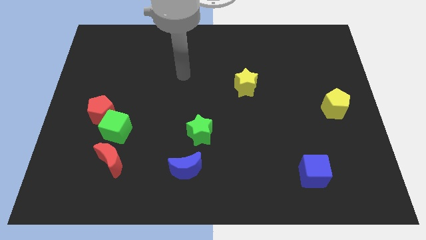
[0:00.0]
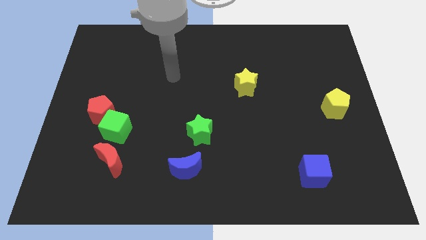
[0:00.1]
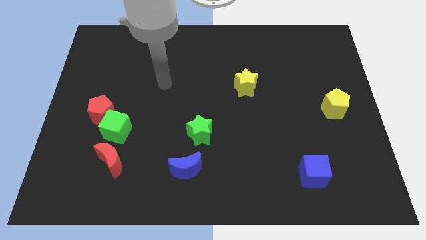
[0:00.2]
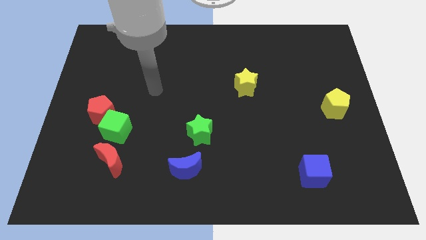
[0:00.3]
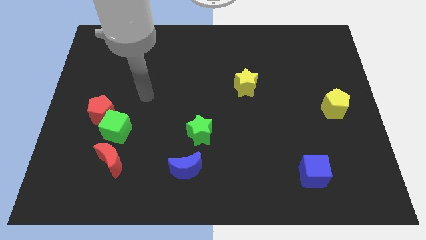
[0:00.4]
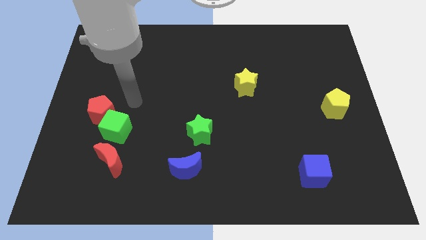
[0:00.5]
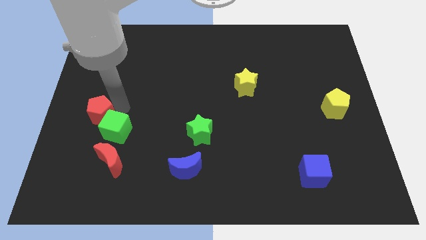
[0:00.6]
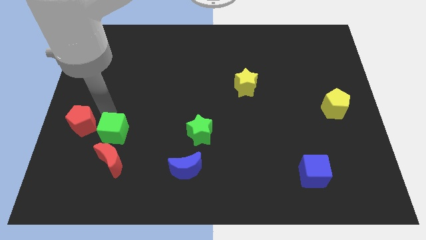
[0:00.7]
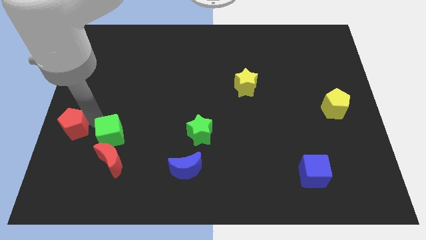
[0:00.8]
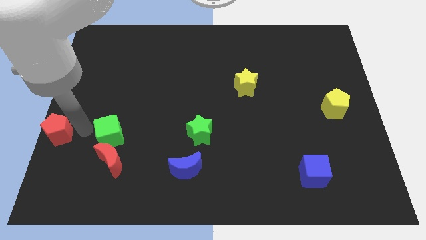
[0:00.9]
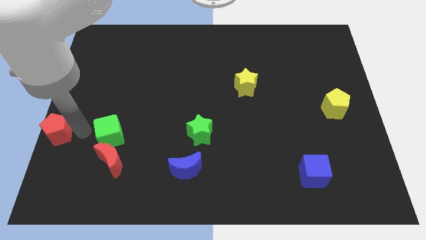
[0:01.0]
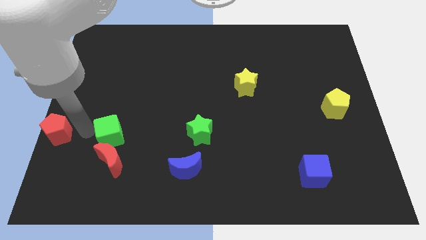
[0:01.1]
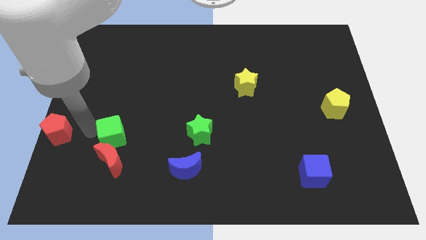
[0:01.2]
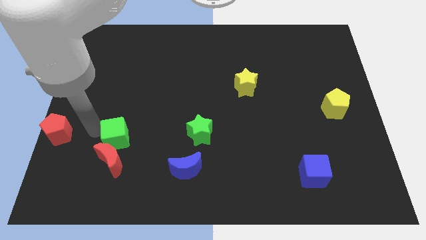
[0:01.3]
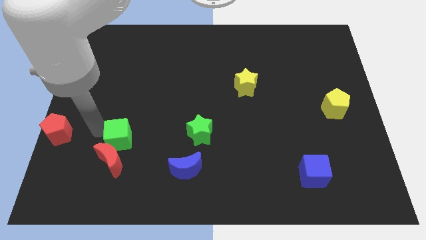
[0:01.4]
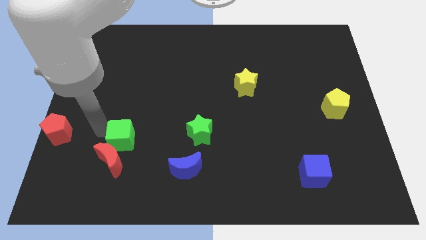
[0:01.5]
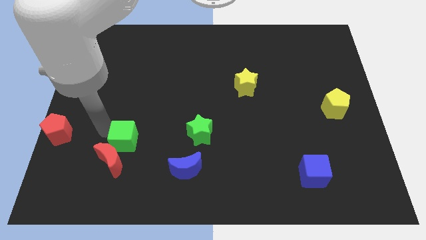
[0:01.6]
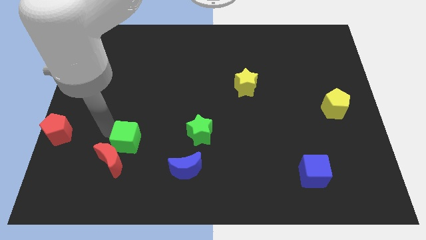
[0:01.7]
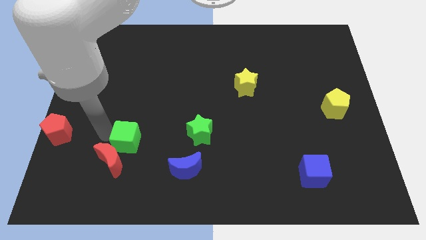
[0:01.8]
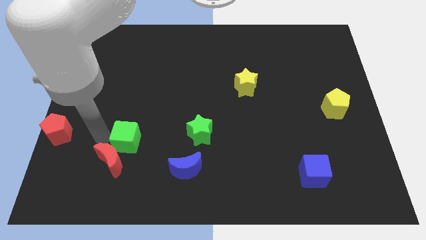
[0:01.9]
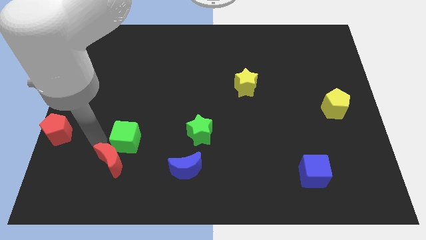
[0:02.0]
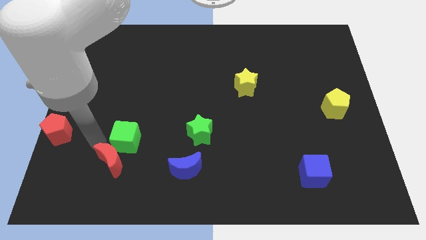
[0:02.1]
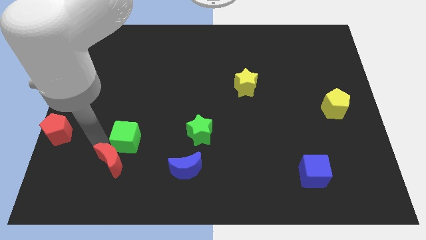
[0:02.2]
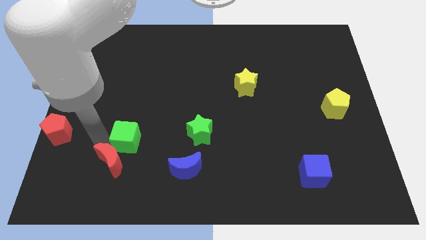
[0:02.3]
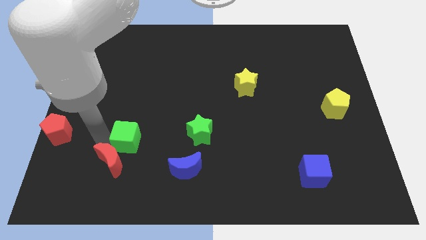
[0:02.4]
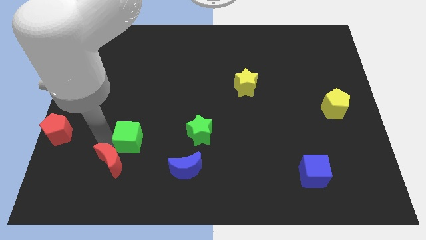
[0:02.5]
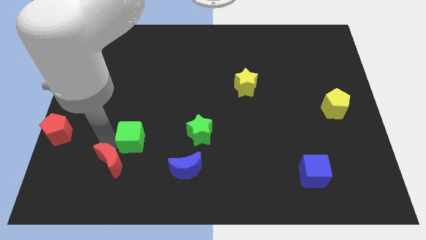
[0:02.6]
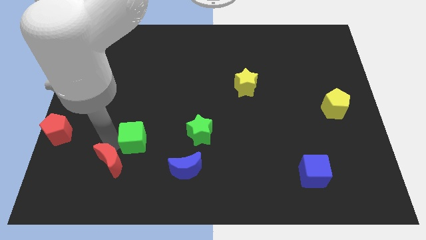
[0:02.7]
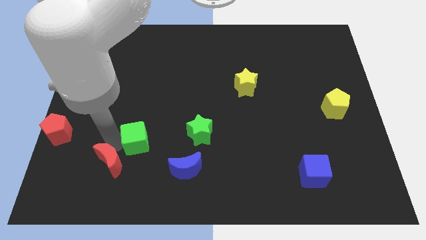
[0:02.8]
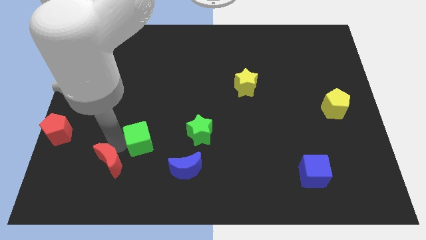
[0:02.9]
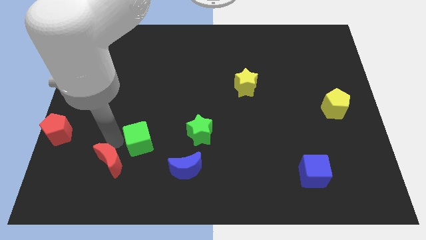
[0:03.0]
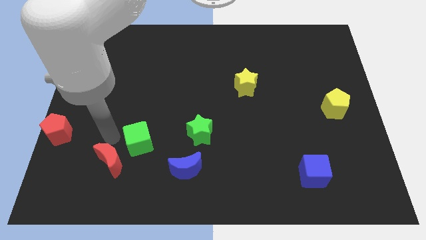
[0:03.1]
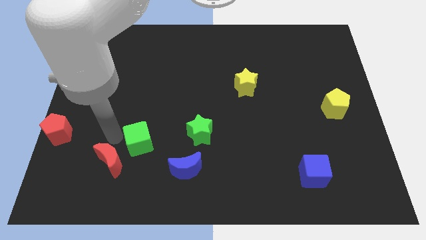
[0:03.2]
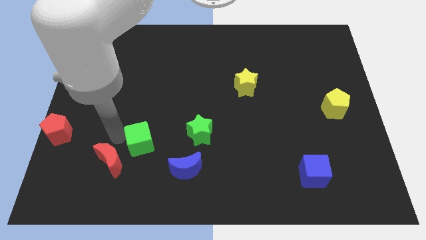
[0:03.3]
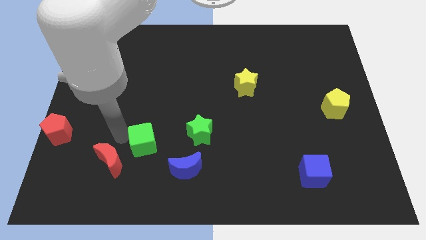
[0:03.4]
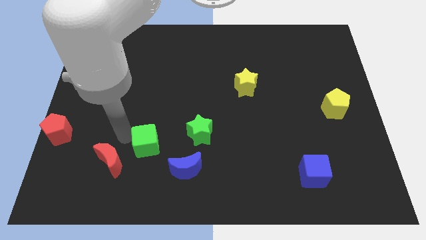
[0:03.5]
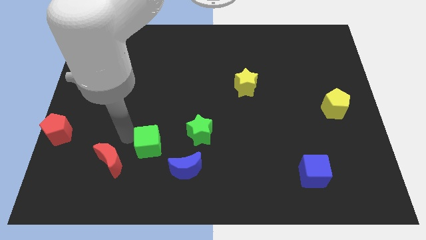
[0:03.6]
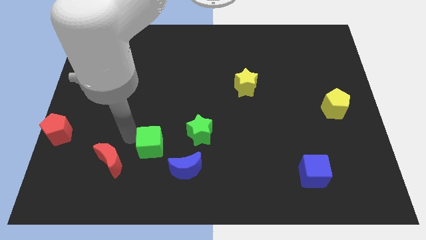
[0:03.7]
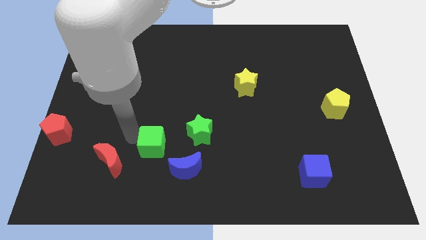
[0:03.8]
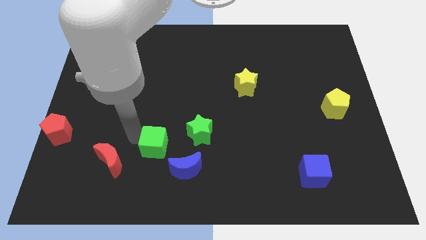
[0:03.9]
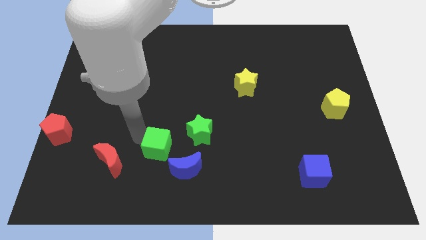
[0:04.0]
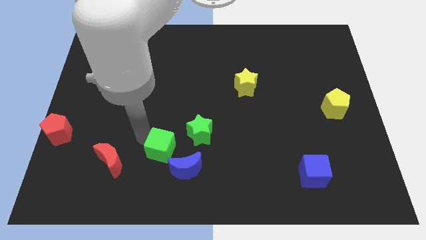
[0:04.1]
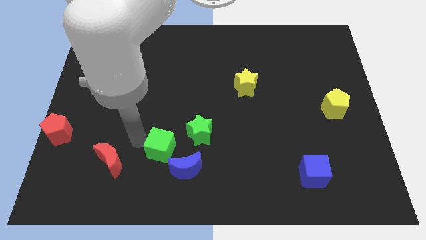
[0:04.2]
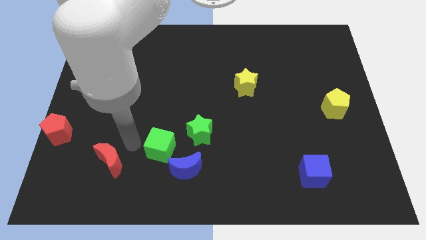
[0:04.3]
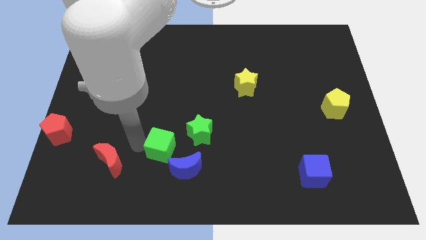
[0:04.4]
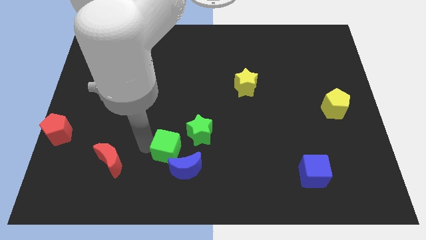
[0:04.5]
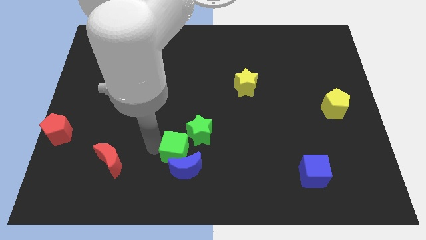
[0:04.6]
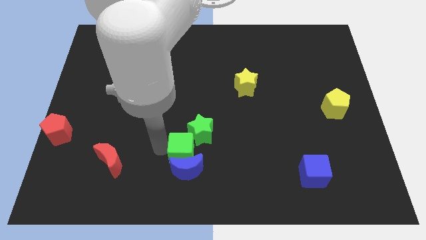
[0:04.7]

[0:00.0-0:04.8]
slide the green cube diagonally up and to the right of the blue moon

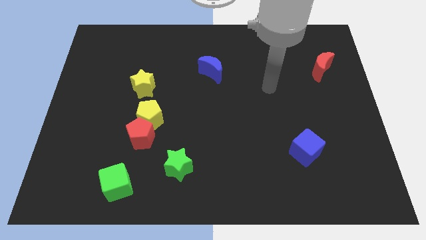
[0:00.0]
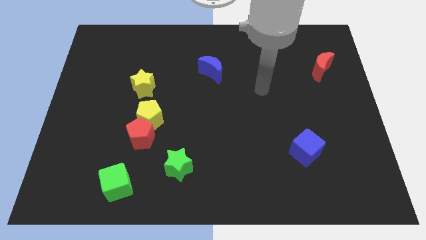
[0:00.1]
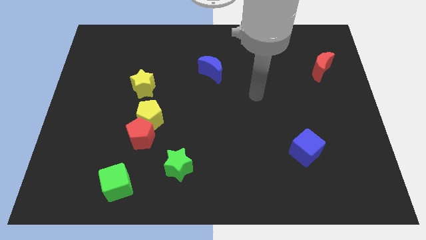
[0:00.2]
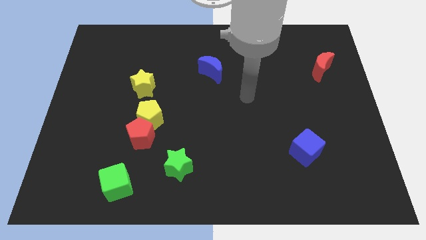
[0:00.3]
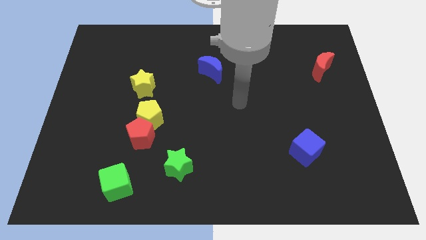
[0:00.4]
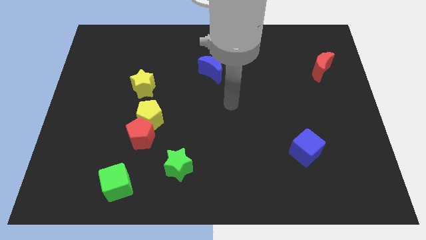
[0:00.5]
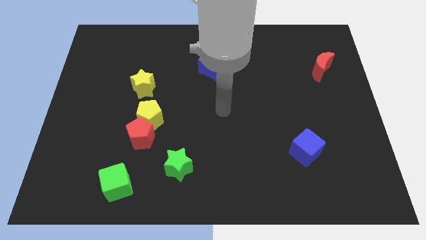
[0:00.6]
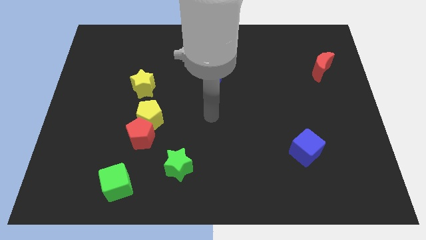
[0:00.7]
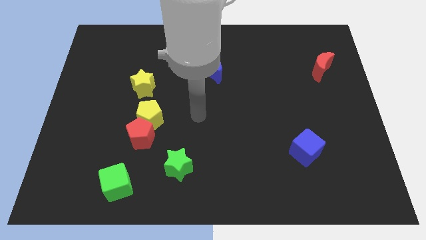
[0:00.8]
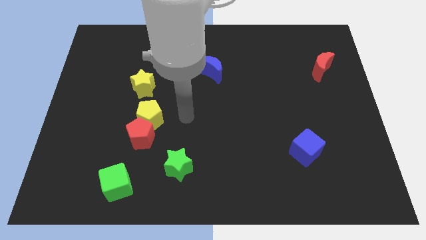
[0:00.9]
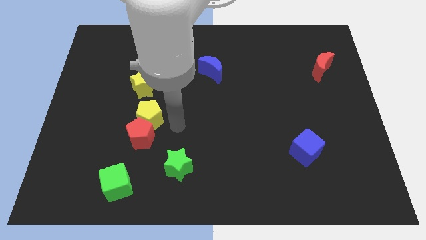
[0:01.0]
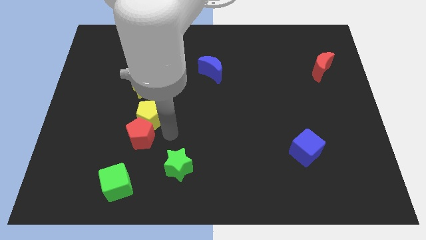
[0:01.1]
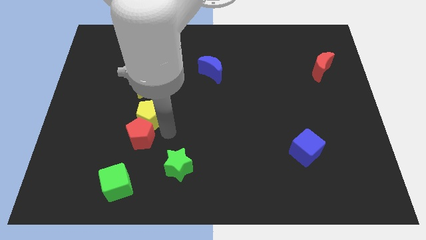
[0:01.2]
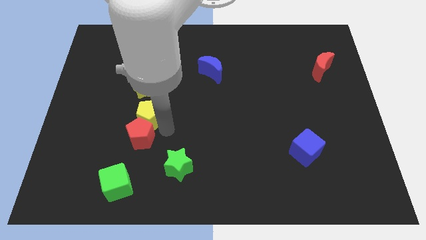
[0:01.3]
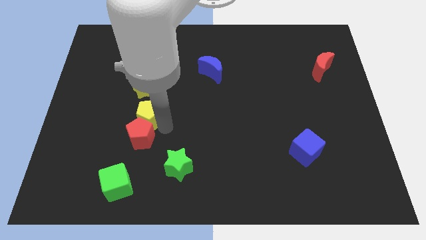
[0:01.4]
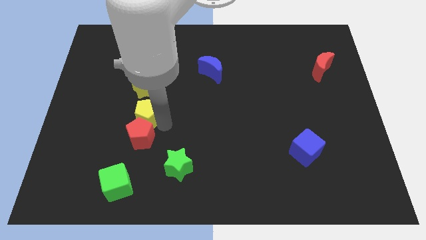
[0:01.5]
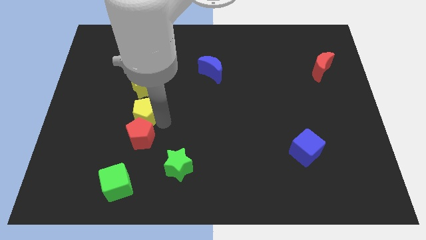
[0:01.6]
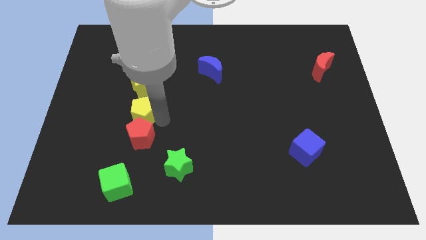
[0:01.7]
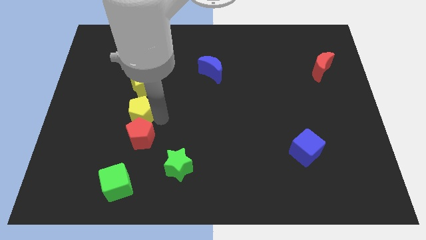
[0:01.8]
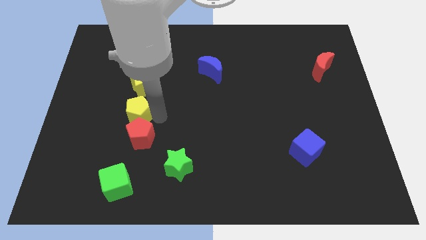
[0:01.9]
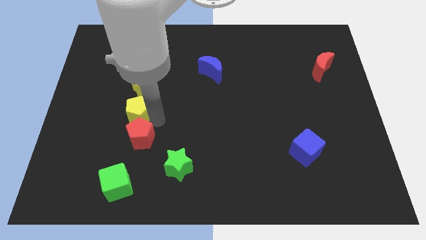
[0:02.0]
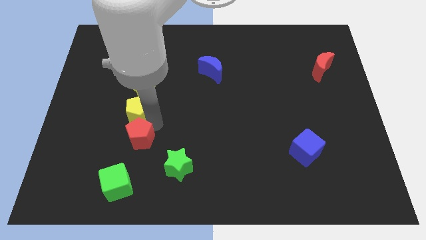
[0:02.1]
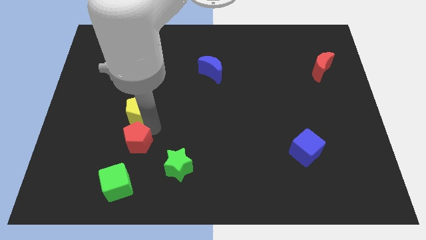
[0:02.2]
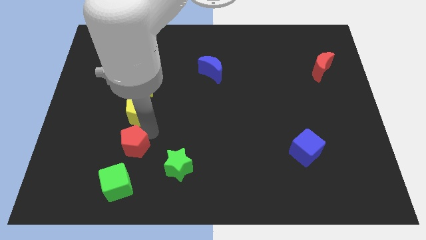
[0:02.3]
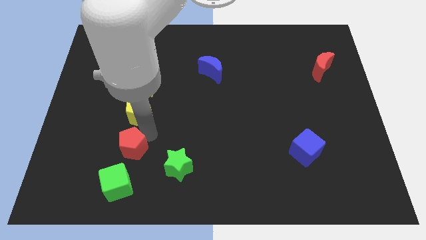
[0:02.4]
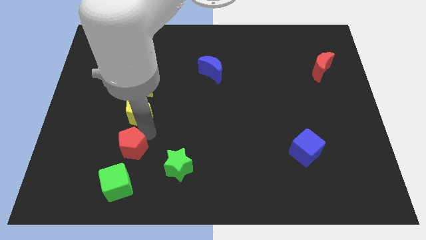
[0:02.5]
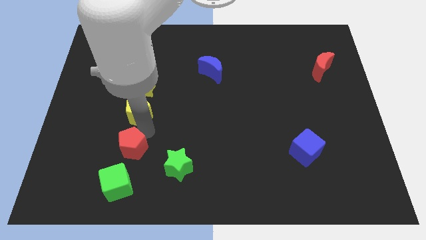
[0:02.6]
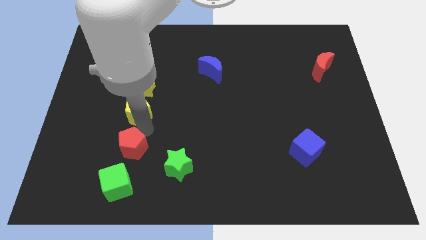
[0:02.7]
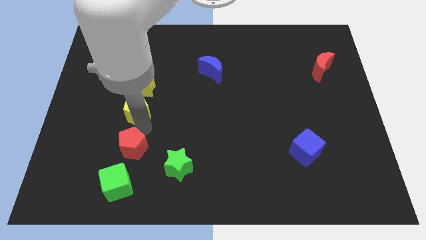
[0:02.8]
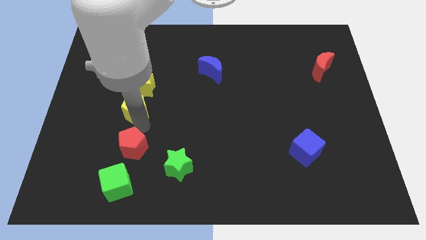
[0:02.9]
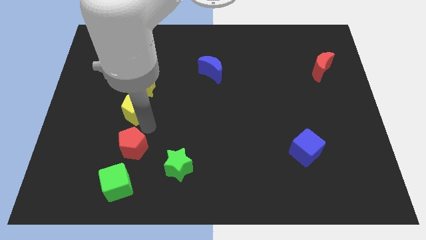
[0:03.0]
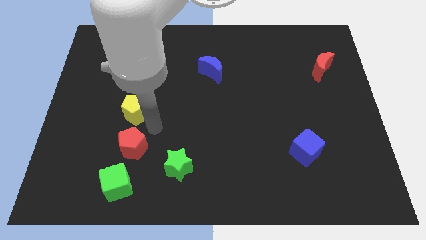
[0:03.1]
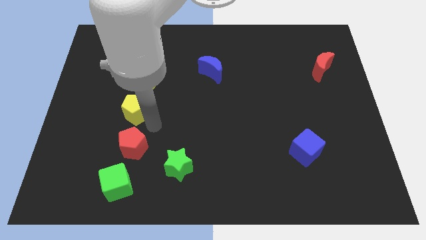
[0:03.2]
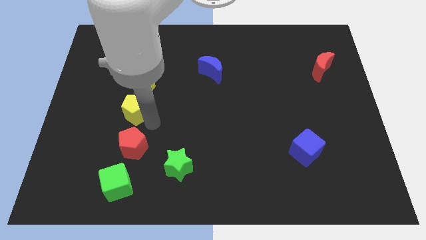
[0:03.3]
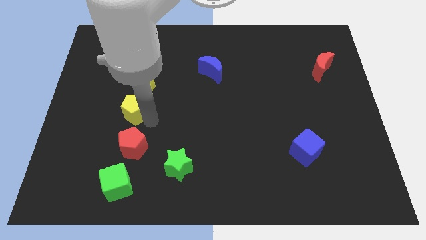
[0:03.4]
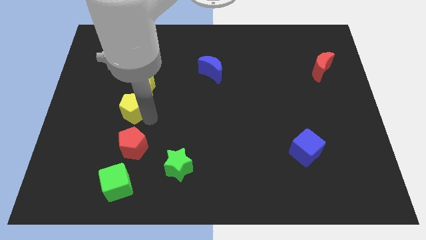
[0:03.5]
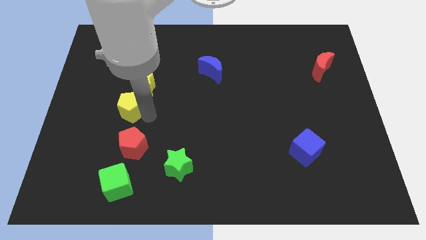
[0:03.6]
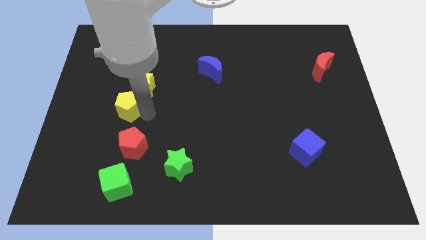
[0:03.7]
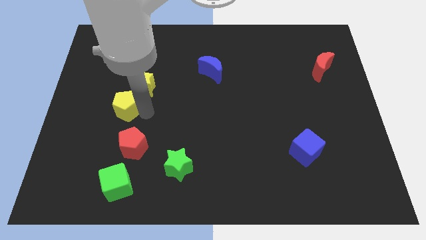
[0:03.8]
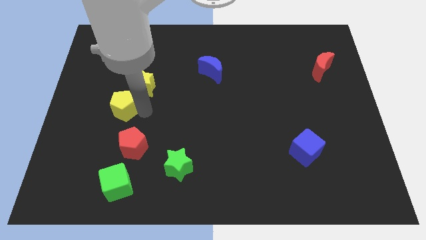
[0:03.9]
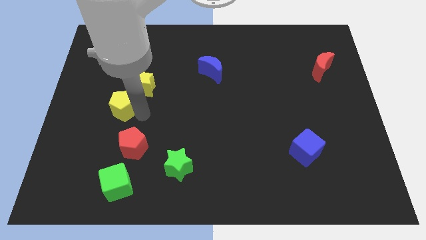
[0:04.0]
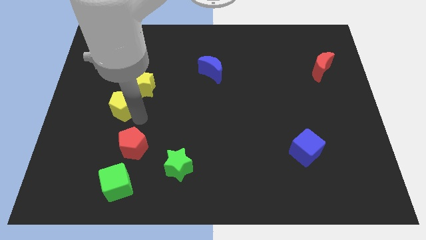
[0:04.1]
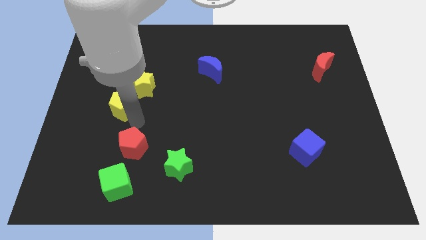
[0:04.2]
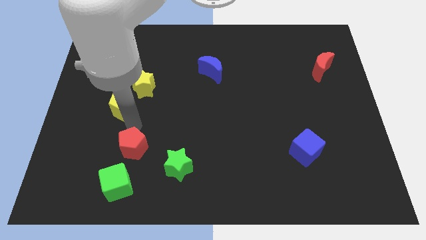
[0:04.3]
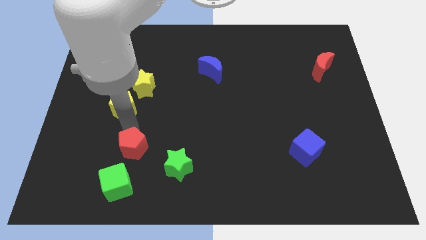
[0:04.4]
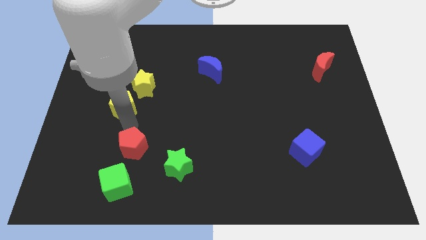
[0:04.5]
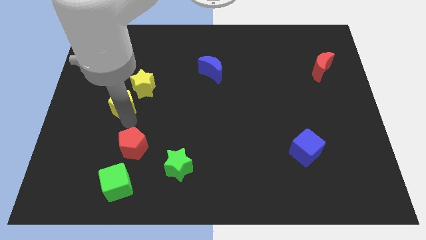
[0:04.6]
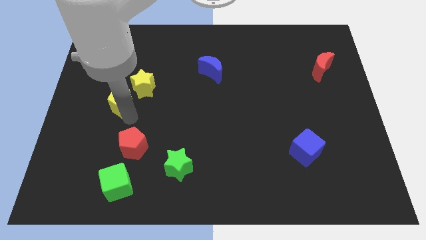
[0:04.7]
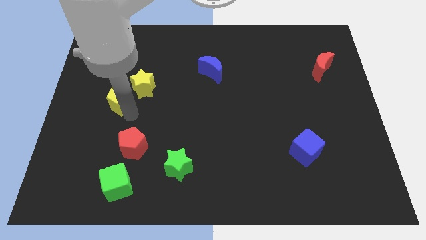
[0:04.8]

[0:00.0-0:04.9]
push the yellow pentagon just left of the yellow star
